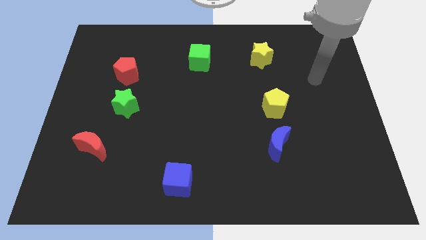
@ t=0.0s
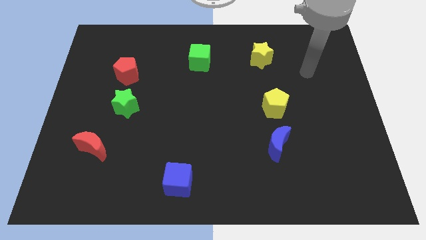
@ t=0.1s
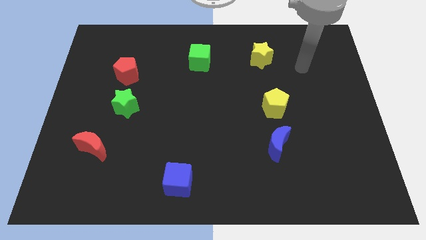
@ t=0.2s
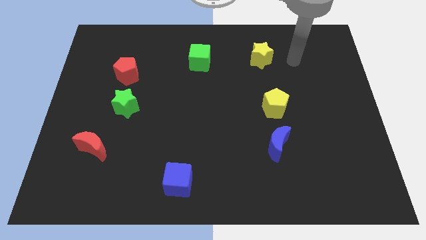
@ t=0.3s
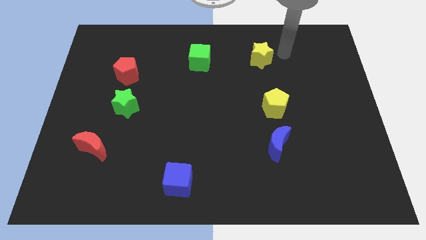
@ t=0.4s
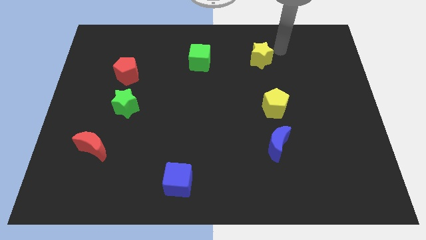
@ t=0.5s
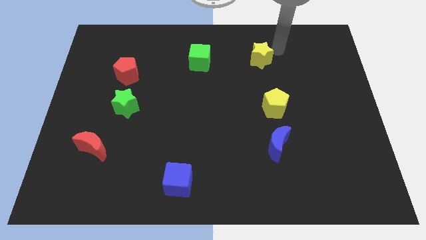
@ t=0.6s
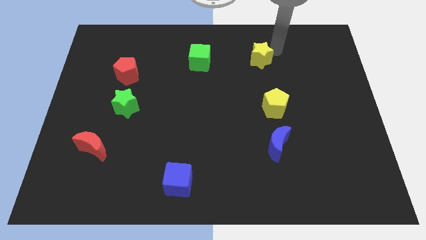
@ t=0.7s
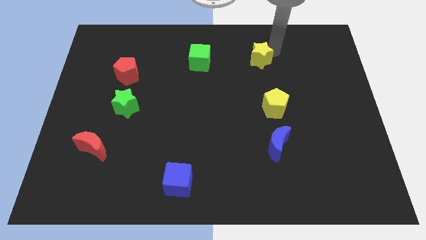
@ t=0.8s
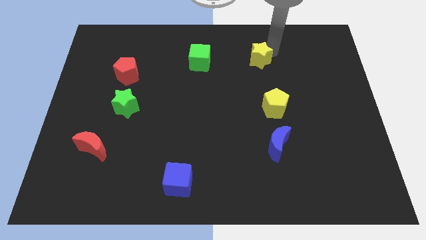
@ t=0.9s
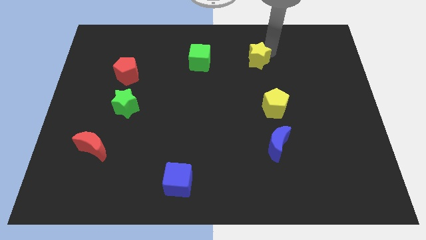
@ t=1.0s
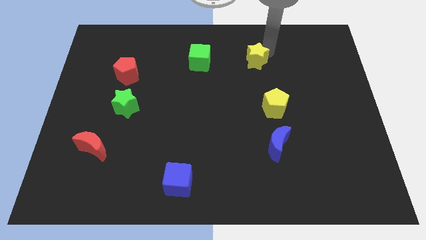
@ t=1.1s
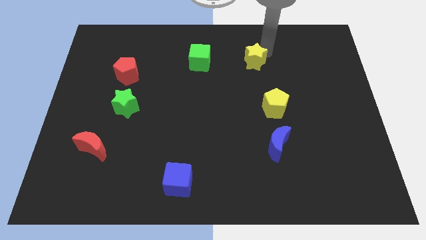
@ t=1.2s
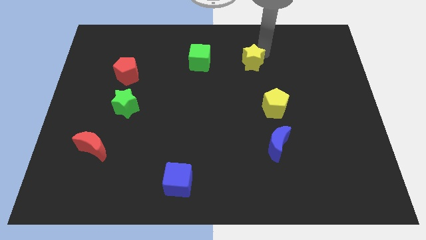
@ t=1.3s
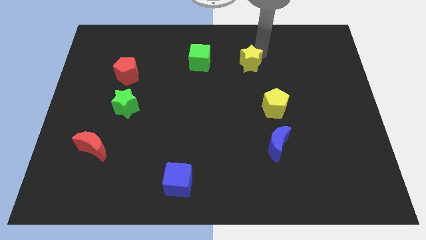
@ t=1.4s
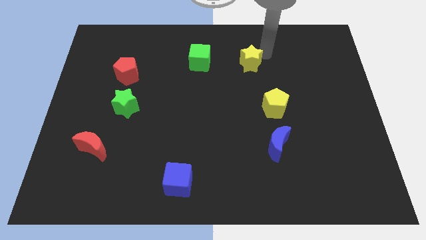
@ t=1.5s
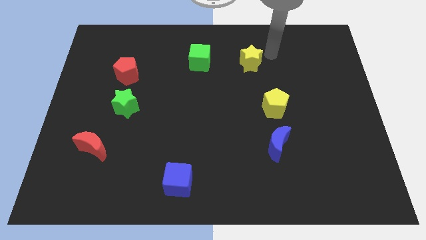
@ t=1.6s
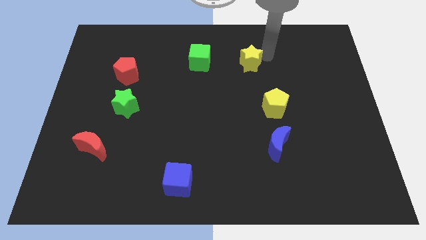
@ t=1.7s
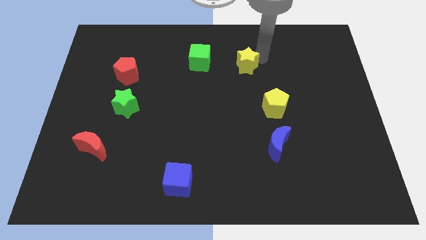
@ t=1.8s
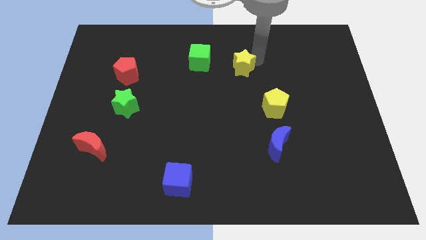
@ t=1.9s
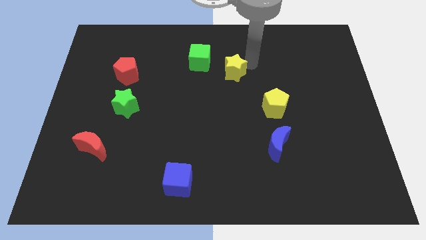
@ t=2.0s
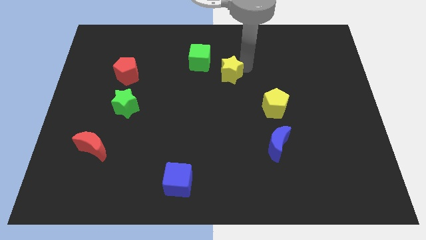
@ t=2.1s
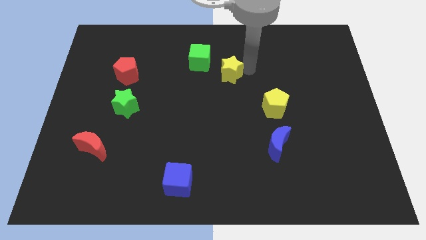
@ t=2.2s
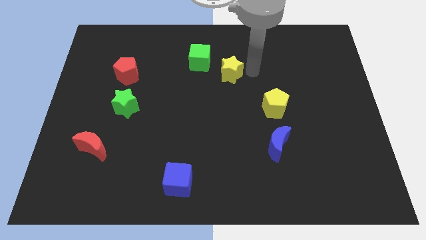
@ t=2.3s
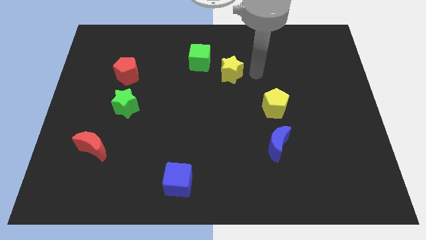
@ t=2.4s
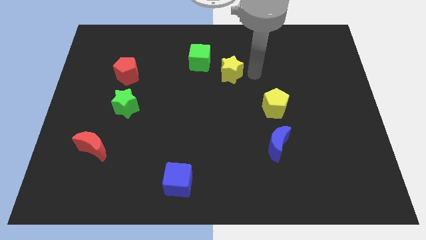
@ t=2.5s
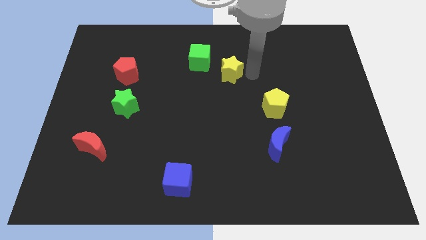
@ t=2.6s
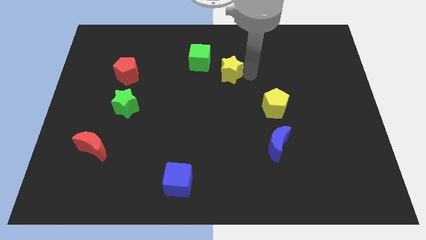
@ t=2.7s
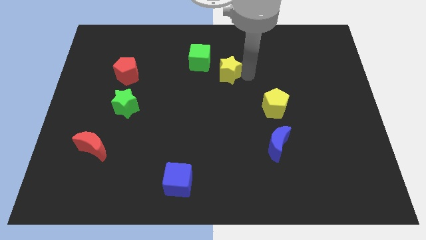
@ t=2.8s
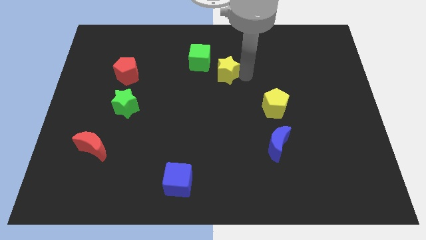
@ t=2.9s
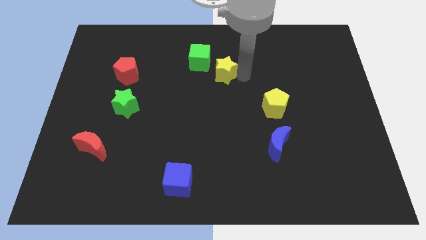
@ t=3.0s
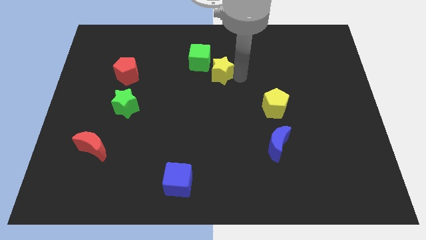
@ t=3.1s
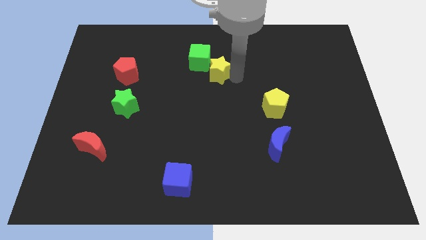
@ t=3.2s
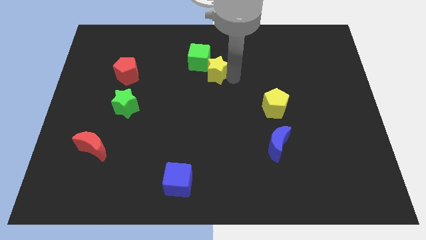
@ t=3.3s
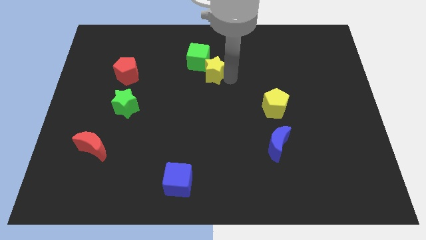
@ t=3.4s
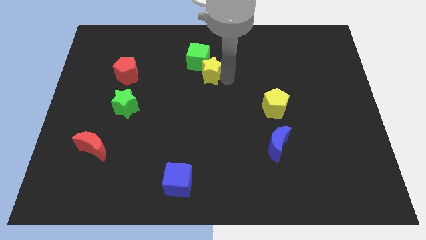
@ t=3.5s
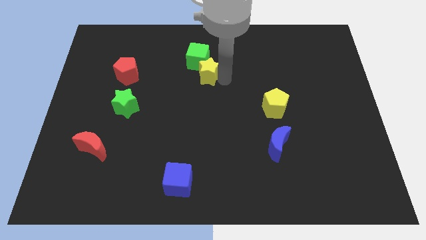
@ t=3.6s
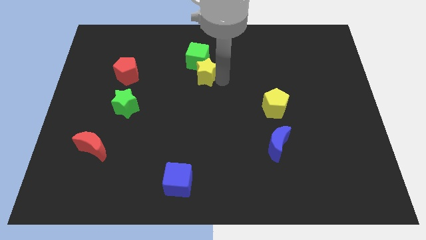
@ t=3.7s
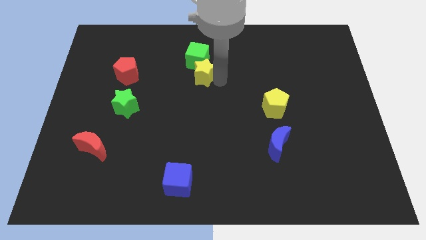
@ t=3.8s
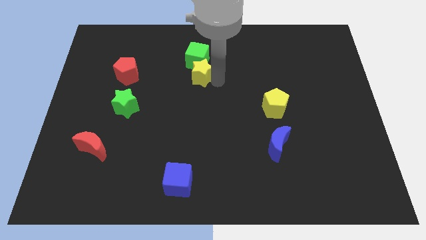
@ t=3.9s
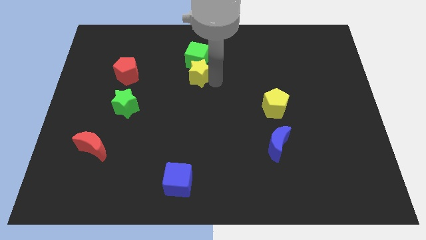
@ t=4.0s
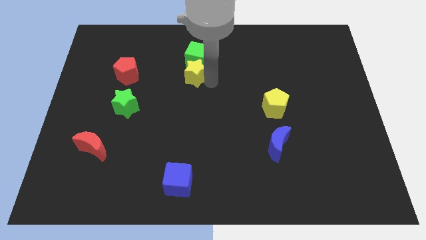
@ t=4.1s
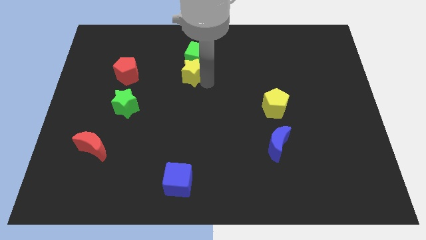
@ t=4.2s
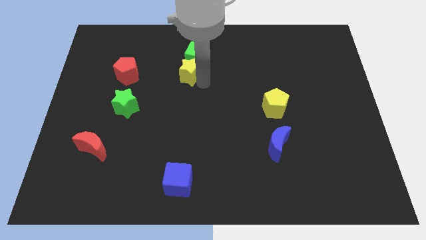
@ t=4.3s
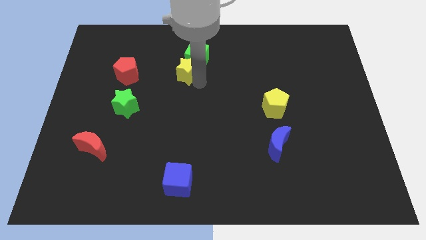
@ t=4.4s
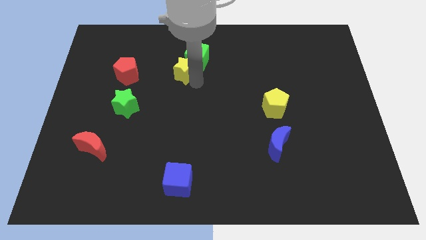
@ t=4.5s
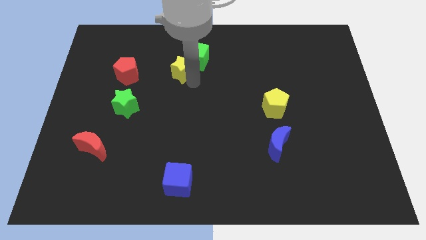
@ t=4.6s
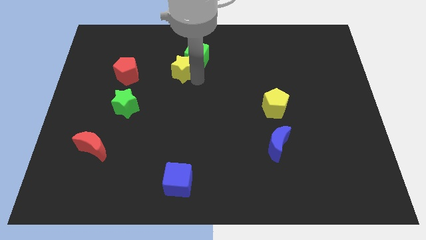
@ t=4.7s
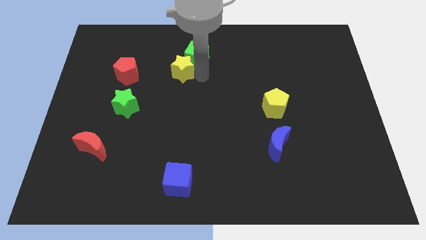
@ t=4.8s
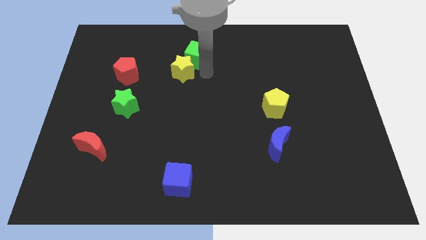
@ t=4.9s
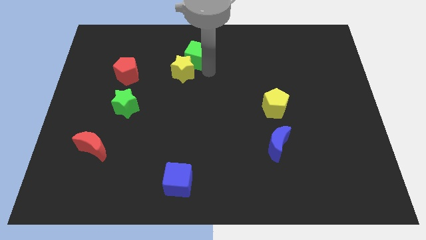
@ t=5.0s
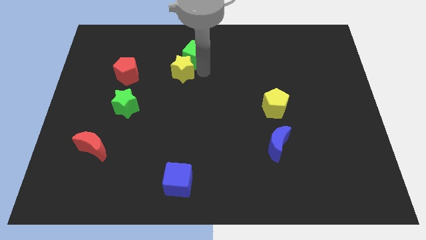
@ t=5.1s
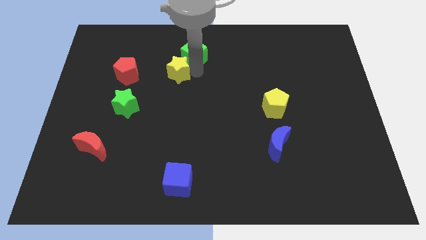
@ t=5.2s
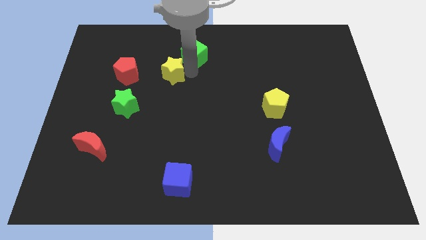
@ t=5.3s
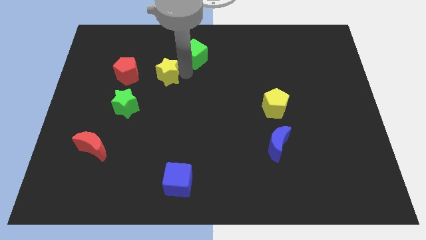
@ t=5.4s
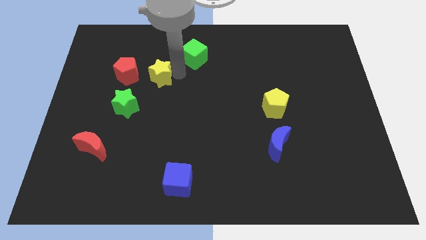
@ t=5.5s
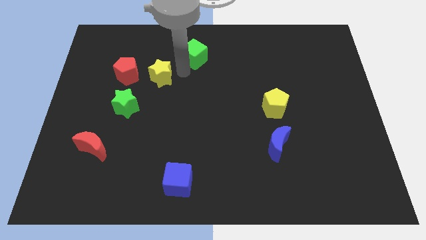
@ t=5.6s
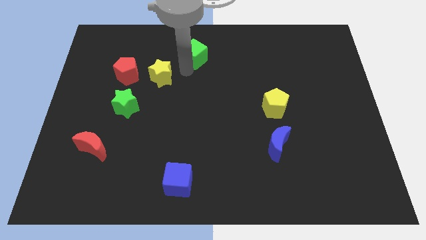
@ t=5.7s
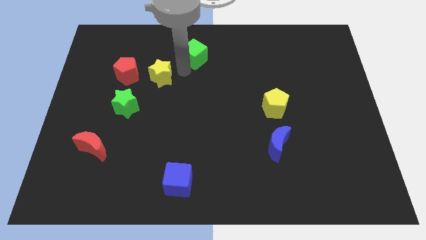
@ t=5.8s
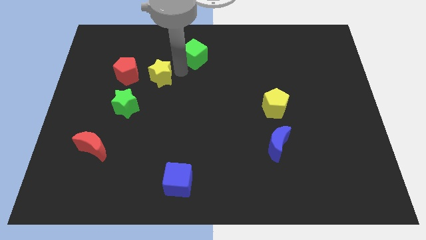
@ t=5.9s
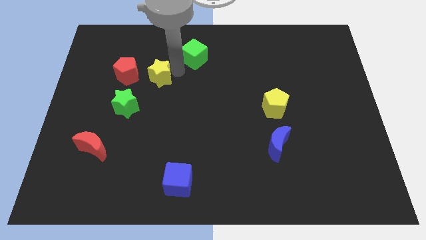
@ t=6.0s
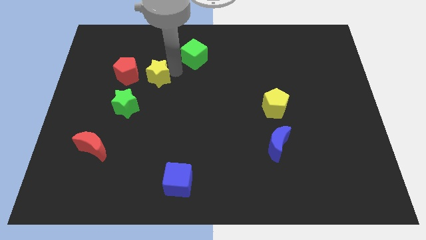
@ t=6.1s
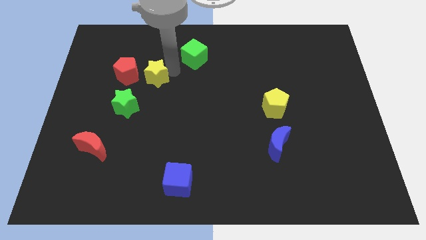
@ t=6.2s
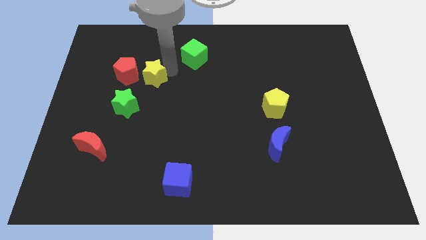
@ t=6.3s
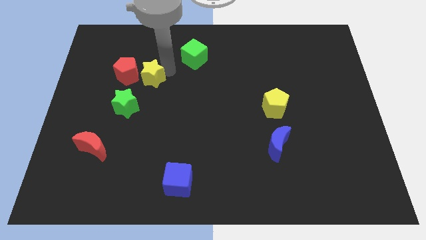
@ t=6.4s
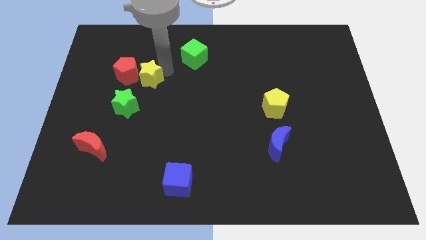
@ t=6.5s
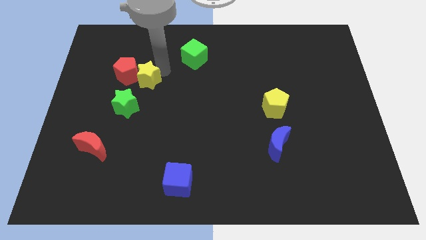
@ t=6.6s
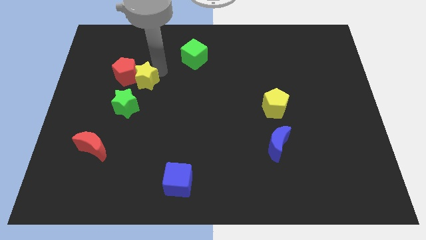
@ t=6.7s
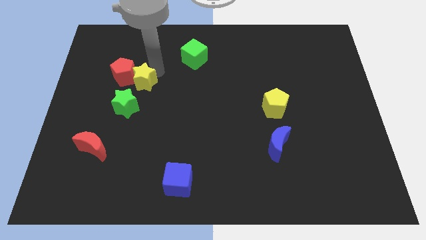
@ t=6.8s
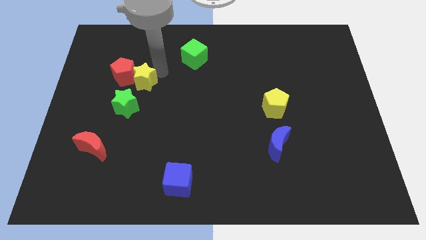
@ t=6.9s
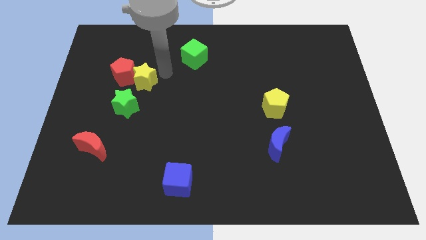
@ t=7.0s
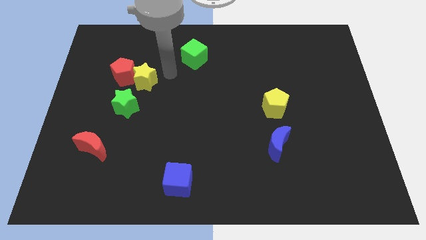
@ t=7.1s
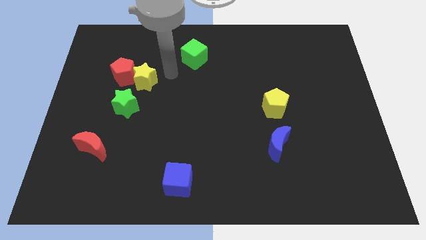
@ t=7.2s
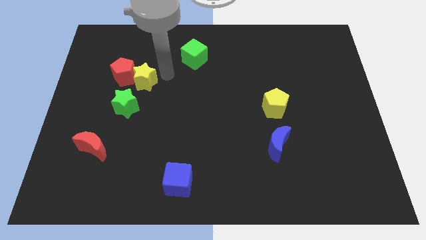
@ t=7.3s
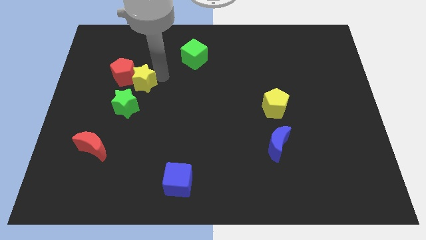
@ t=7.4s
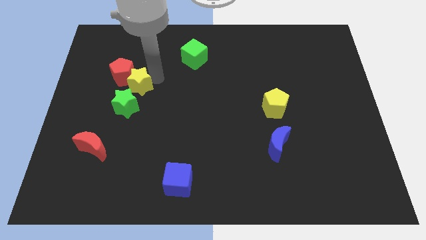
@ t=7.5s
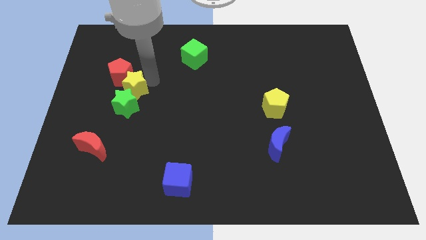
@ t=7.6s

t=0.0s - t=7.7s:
put the yellow star diagonally up and to the left of the green star
